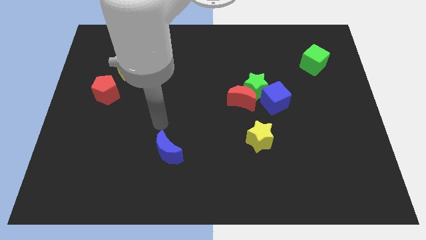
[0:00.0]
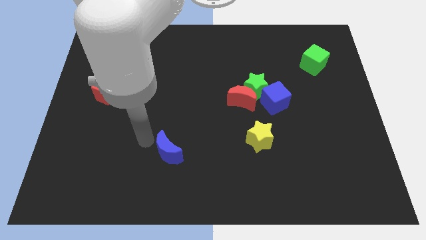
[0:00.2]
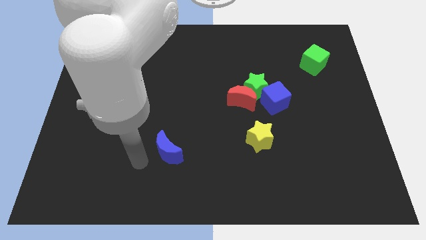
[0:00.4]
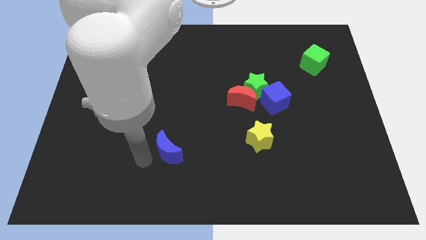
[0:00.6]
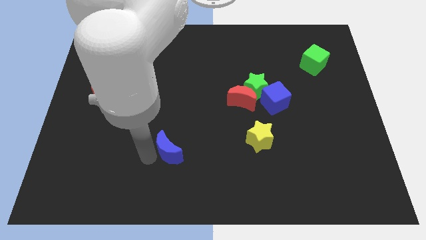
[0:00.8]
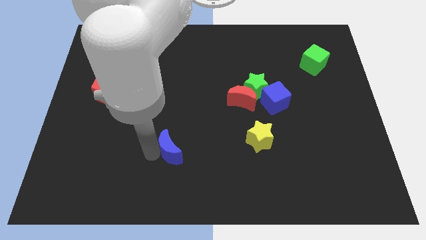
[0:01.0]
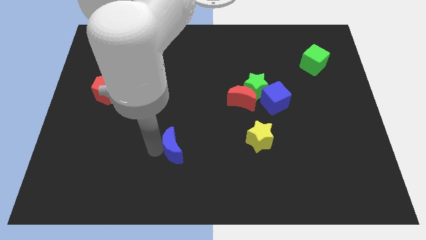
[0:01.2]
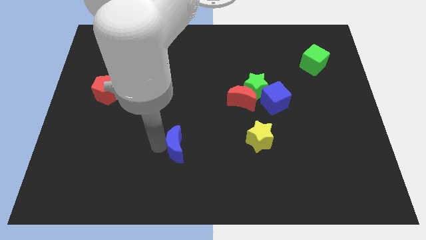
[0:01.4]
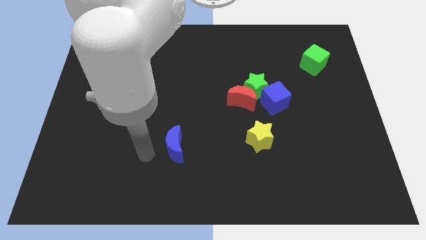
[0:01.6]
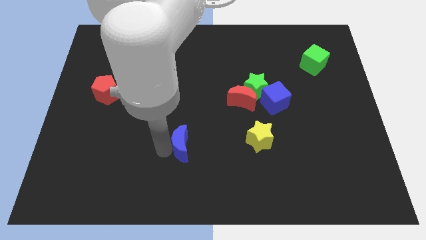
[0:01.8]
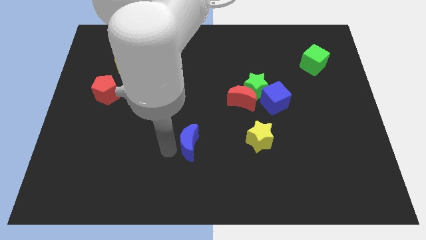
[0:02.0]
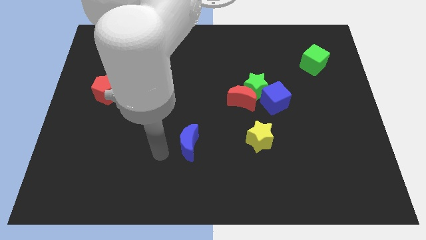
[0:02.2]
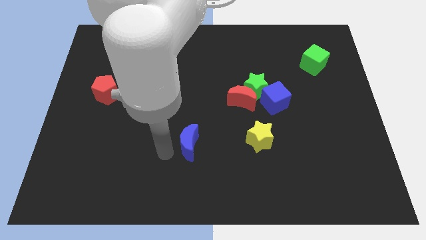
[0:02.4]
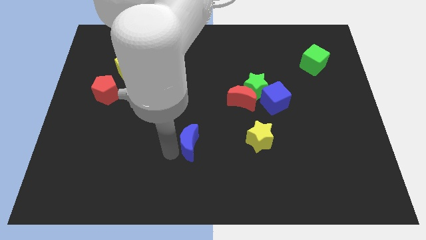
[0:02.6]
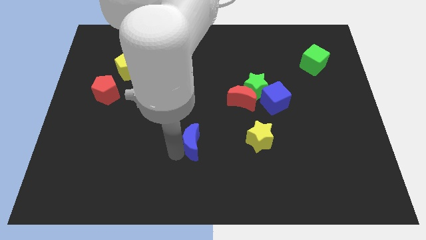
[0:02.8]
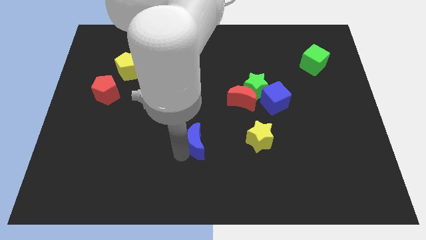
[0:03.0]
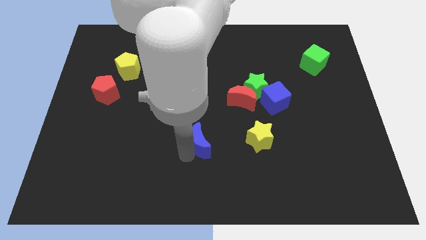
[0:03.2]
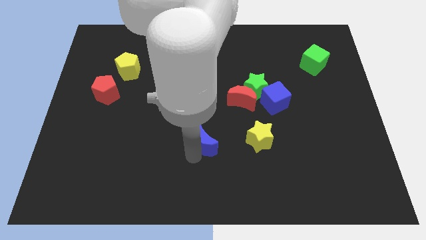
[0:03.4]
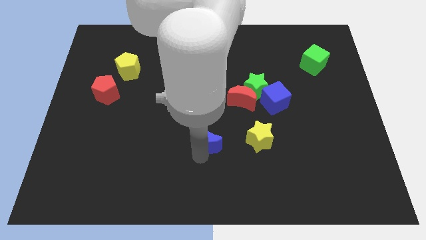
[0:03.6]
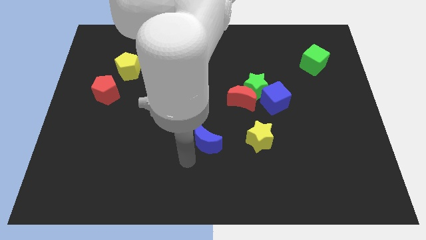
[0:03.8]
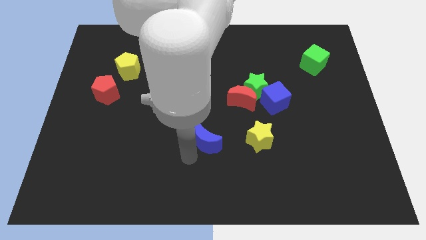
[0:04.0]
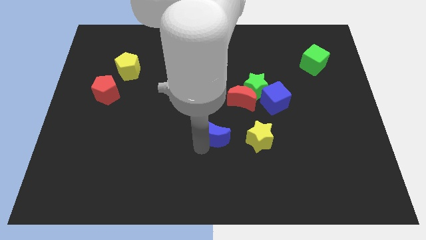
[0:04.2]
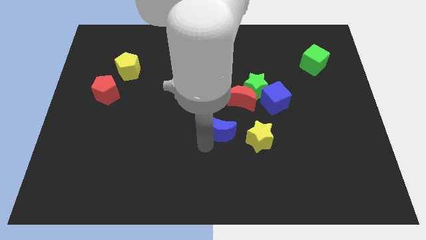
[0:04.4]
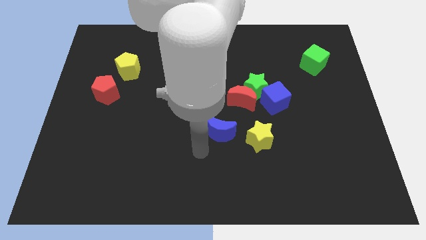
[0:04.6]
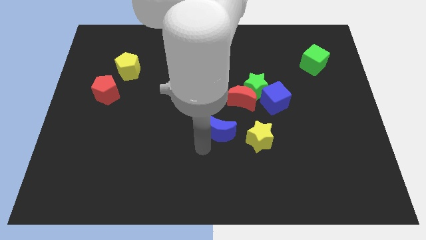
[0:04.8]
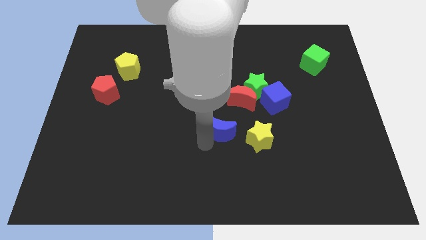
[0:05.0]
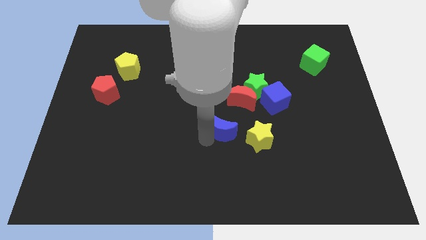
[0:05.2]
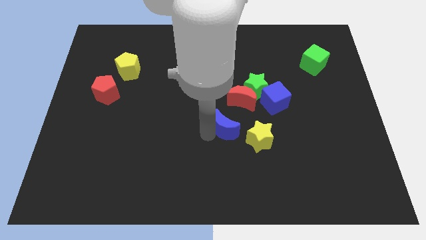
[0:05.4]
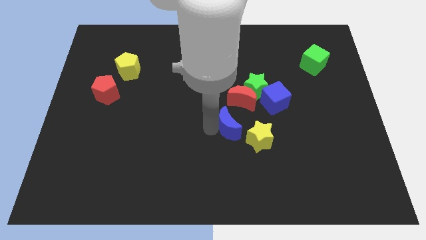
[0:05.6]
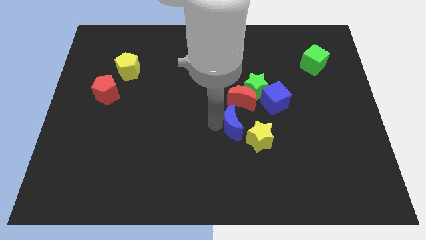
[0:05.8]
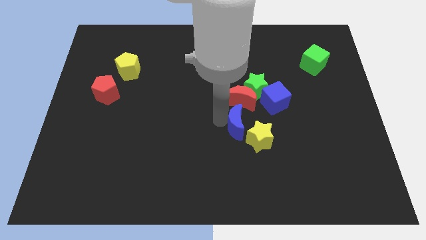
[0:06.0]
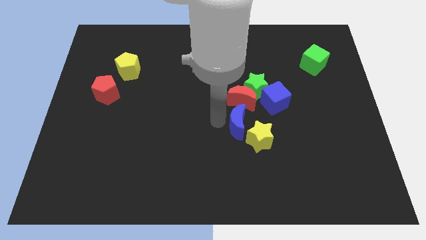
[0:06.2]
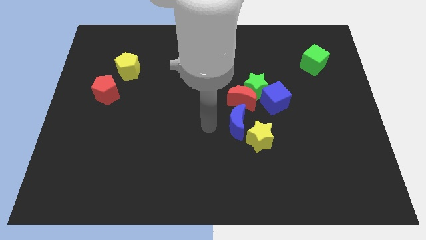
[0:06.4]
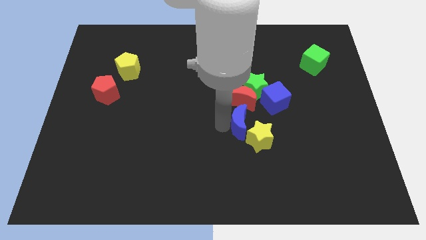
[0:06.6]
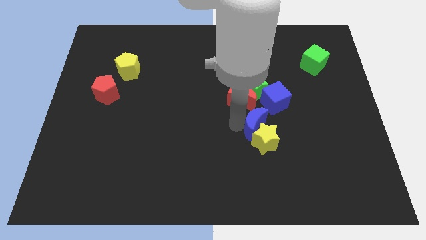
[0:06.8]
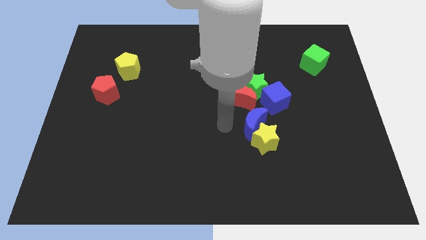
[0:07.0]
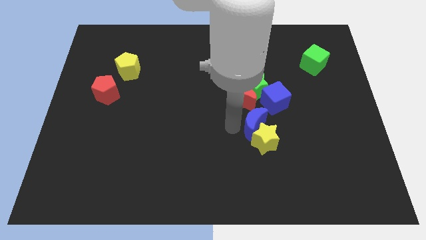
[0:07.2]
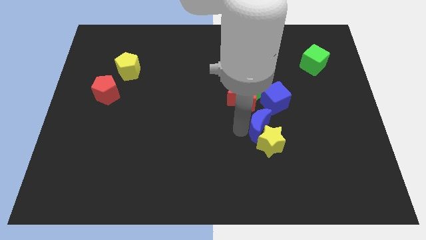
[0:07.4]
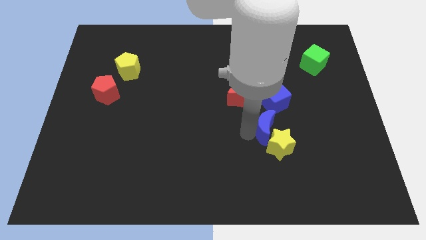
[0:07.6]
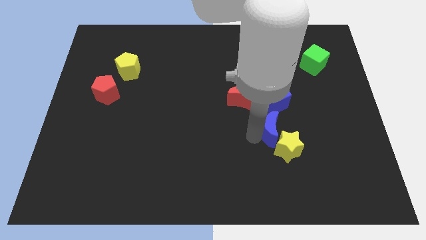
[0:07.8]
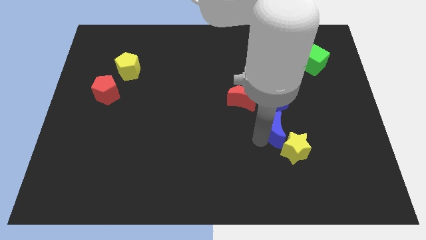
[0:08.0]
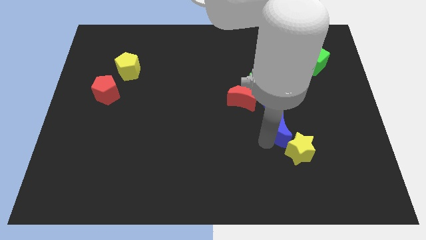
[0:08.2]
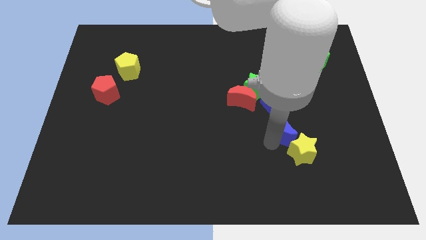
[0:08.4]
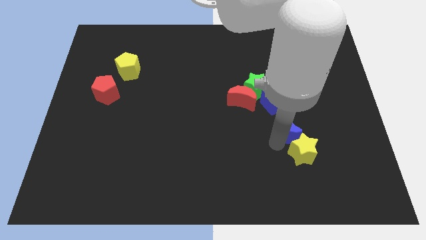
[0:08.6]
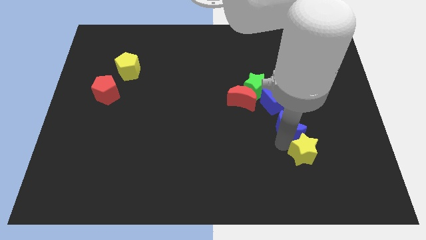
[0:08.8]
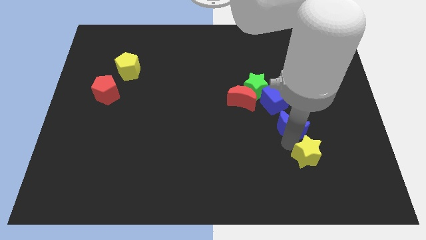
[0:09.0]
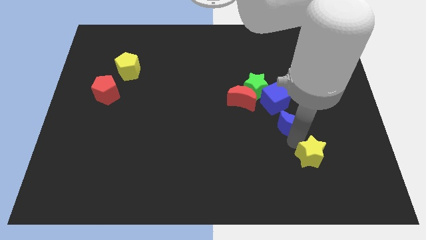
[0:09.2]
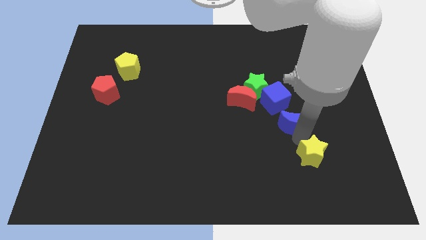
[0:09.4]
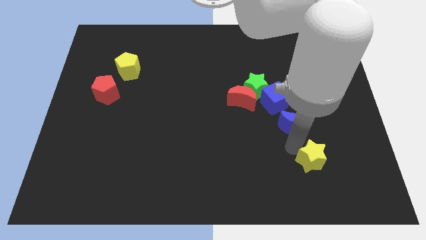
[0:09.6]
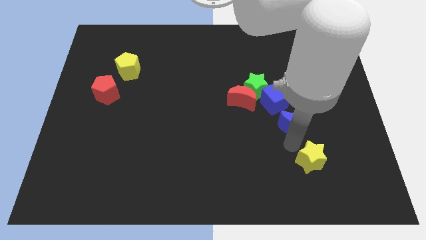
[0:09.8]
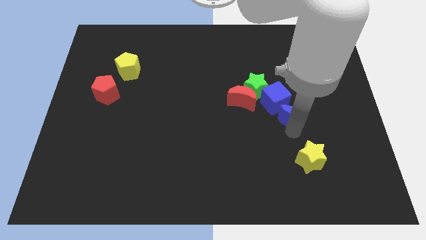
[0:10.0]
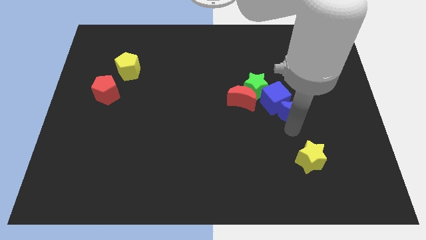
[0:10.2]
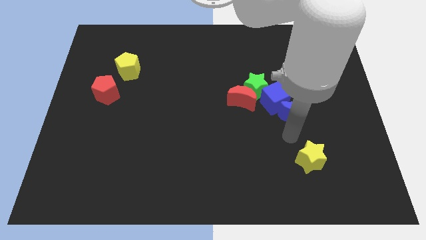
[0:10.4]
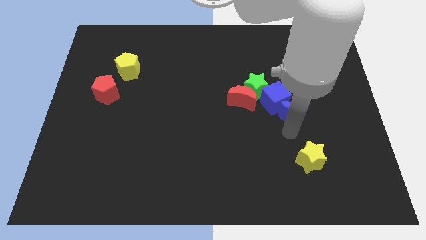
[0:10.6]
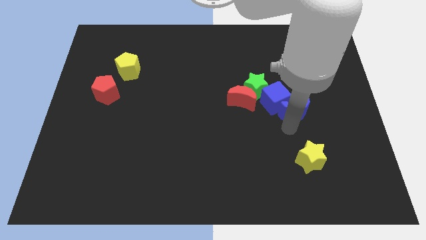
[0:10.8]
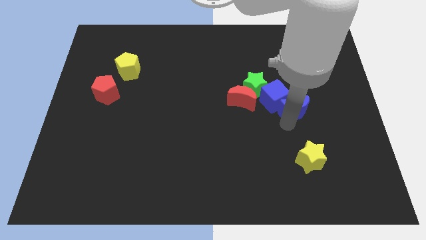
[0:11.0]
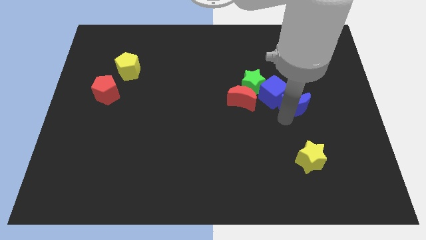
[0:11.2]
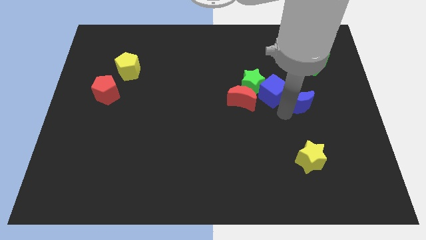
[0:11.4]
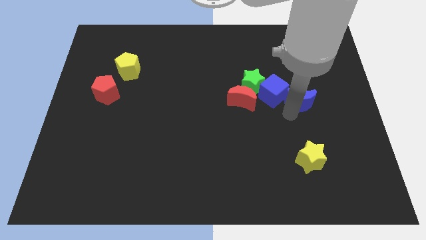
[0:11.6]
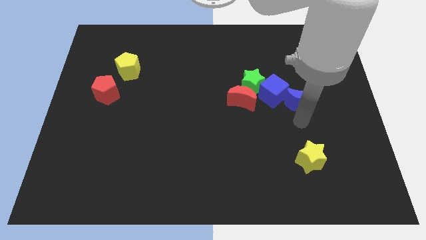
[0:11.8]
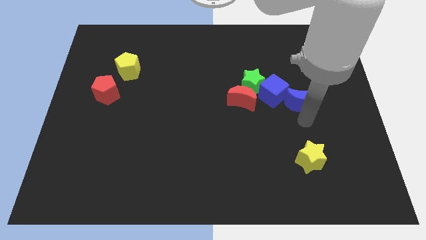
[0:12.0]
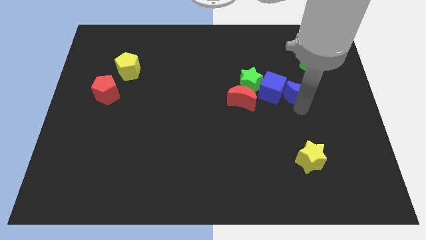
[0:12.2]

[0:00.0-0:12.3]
move the blue moon just right of the green star

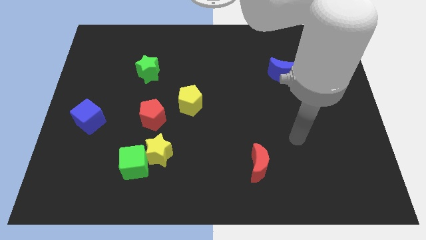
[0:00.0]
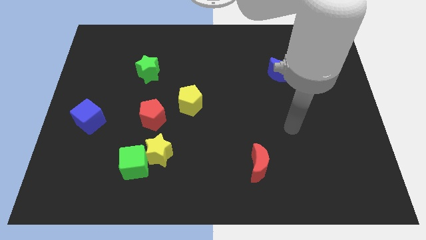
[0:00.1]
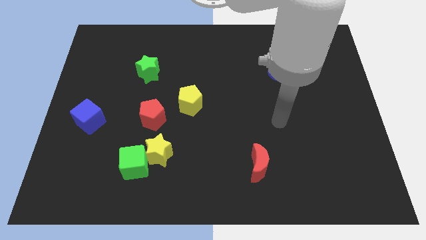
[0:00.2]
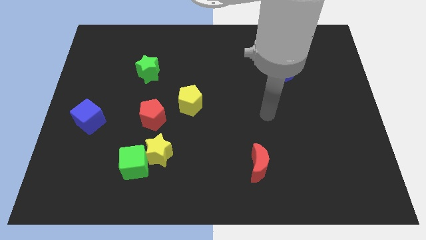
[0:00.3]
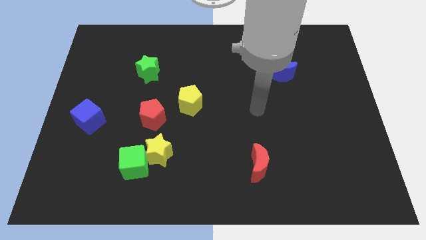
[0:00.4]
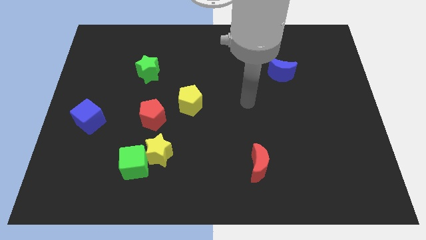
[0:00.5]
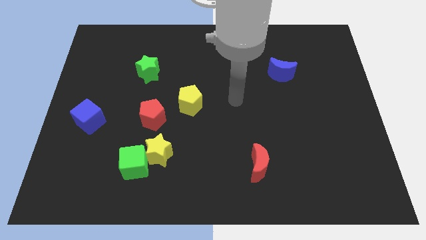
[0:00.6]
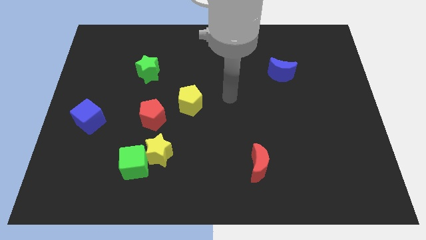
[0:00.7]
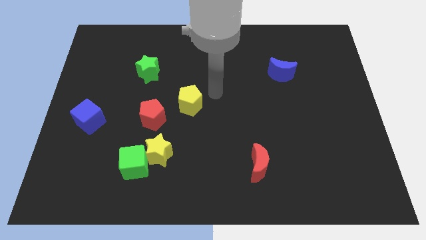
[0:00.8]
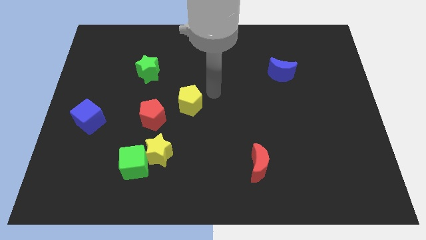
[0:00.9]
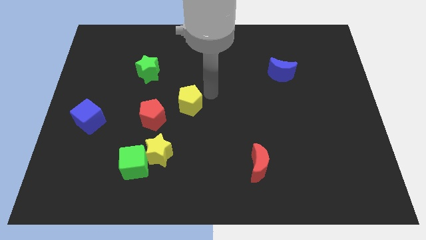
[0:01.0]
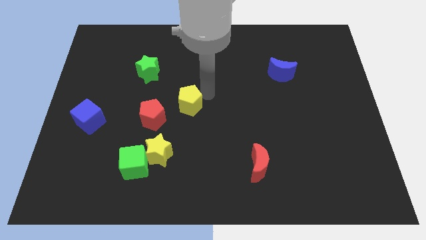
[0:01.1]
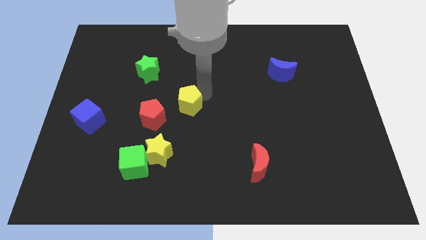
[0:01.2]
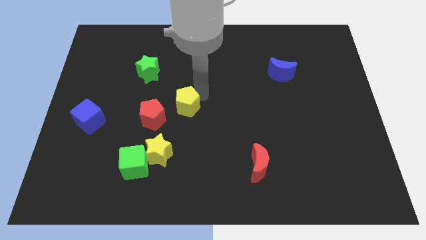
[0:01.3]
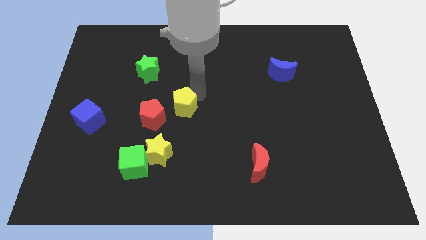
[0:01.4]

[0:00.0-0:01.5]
slide the yellow pentagon to the top of the yellow star
